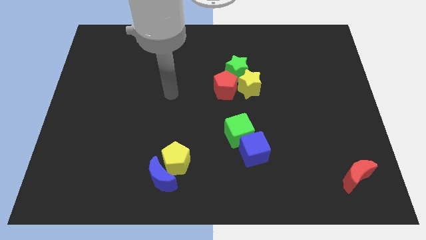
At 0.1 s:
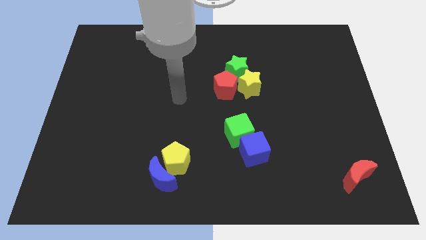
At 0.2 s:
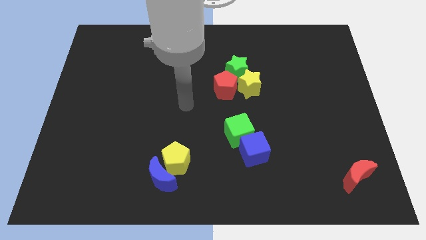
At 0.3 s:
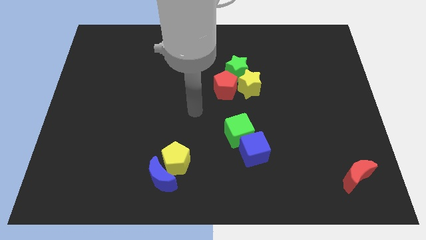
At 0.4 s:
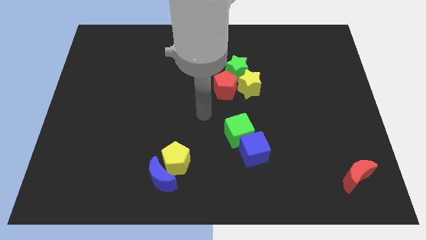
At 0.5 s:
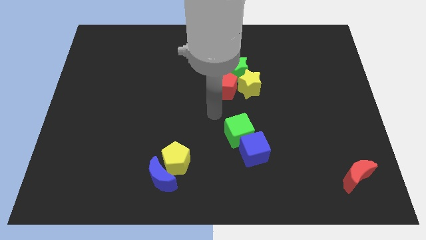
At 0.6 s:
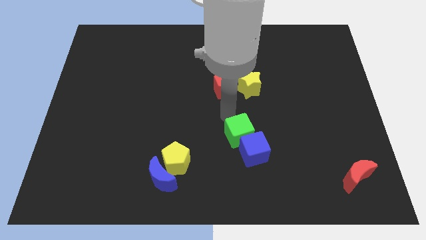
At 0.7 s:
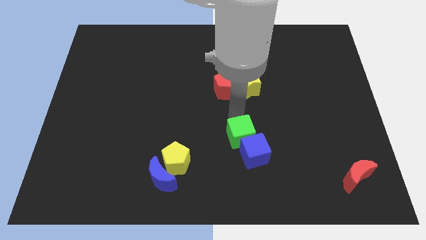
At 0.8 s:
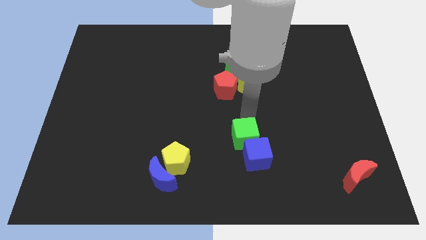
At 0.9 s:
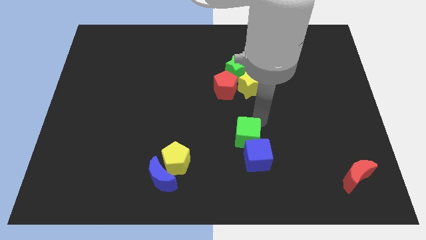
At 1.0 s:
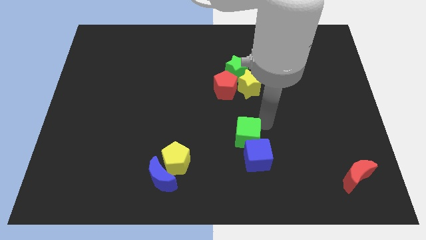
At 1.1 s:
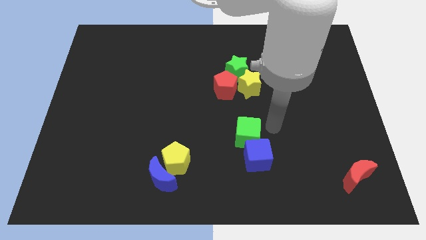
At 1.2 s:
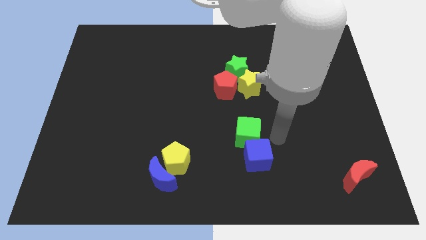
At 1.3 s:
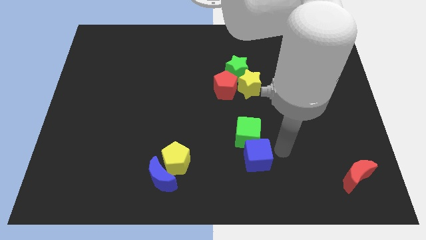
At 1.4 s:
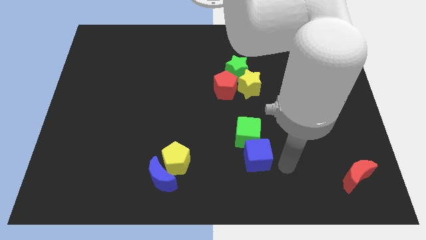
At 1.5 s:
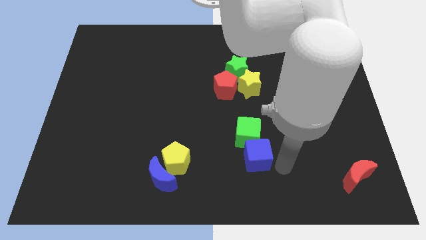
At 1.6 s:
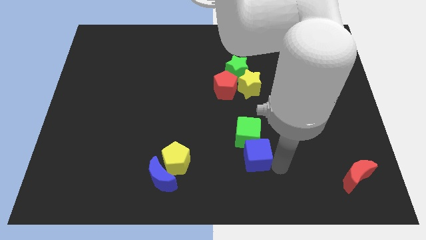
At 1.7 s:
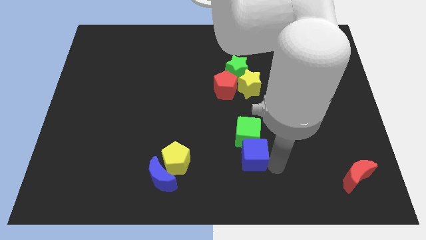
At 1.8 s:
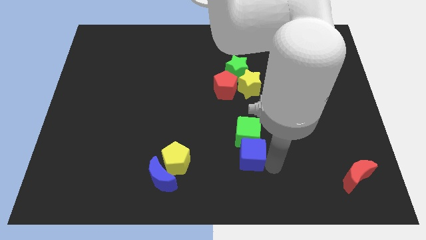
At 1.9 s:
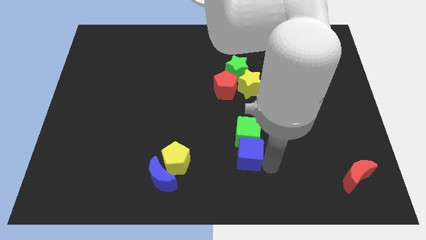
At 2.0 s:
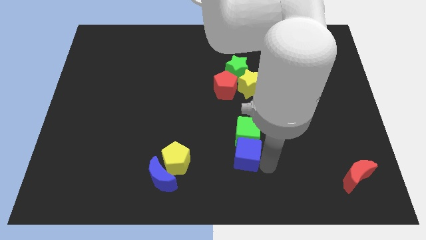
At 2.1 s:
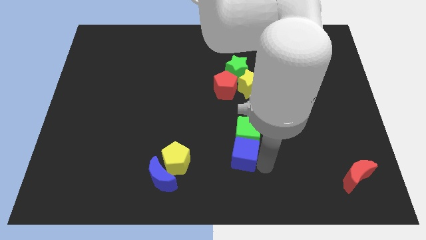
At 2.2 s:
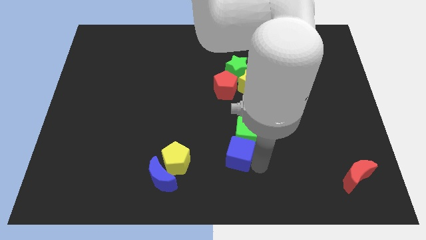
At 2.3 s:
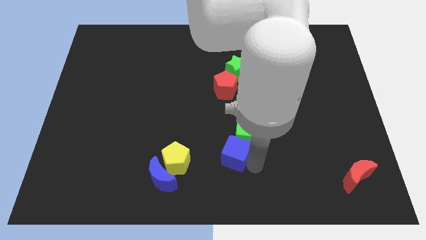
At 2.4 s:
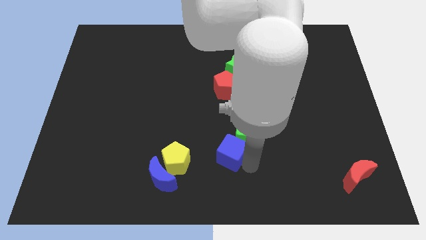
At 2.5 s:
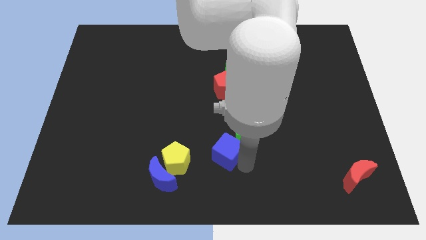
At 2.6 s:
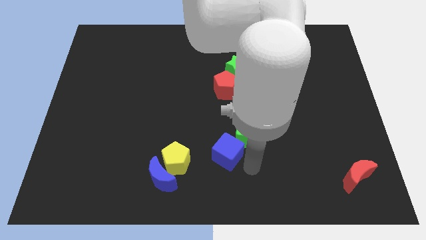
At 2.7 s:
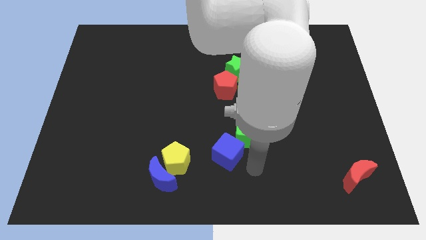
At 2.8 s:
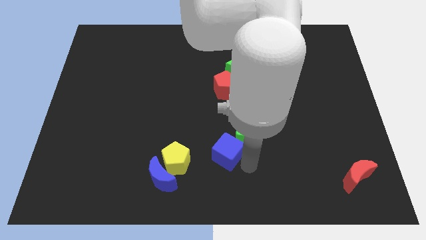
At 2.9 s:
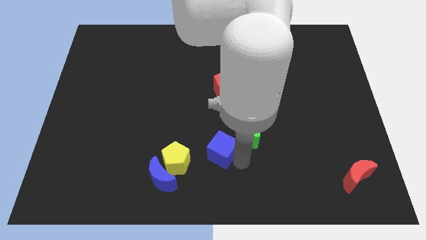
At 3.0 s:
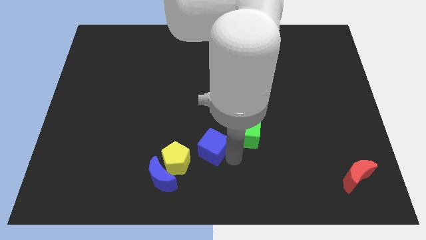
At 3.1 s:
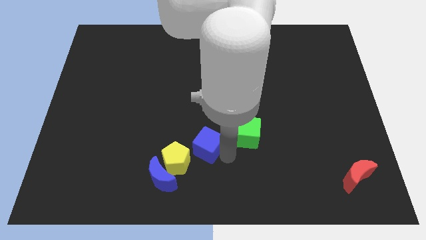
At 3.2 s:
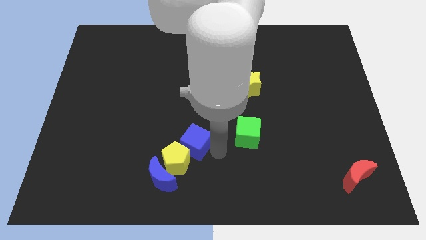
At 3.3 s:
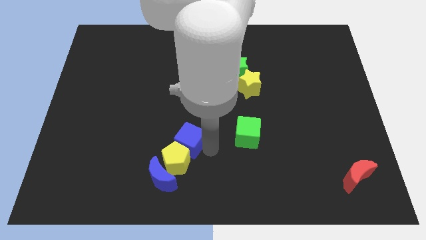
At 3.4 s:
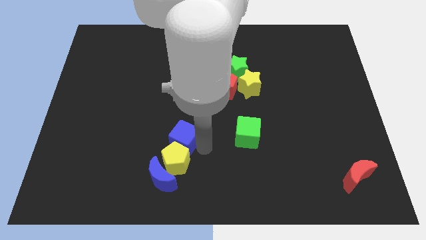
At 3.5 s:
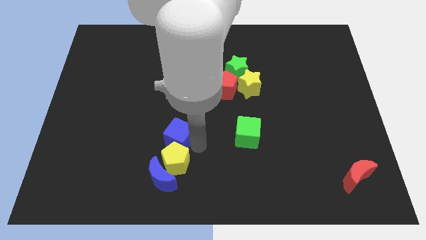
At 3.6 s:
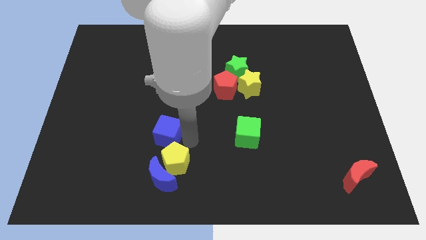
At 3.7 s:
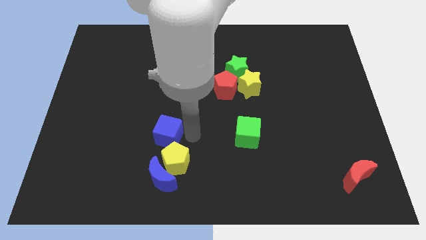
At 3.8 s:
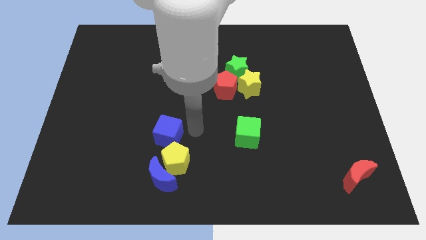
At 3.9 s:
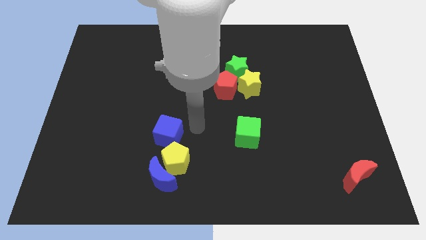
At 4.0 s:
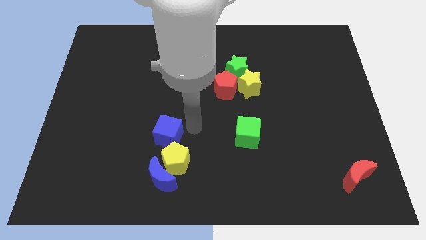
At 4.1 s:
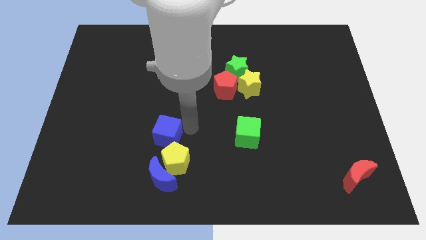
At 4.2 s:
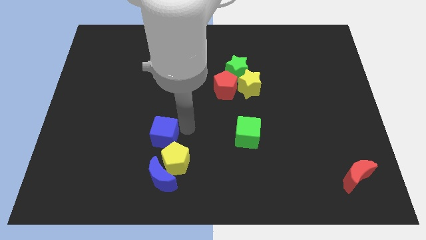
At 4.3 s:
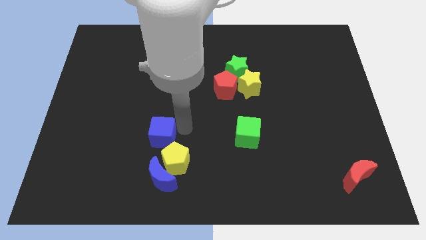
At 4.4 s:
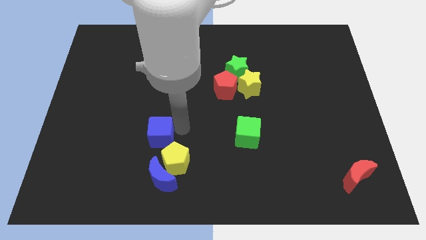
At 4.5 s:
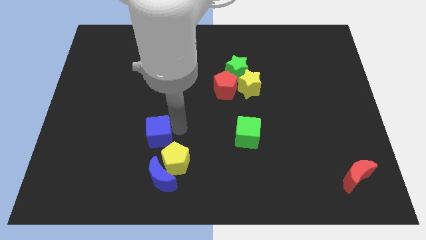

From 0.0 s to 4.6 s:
slide the blue cube to the left

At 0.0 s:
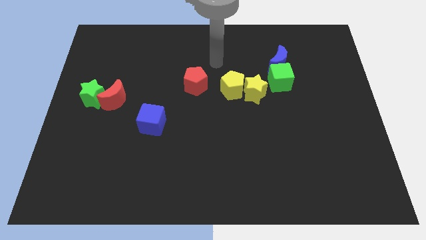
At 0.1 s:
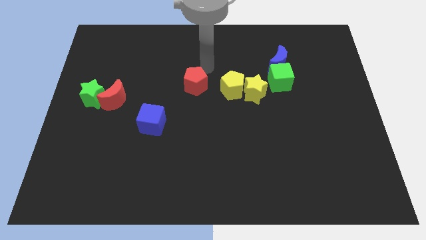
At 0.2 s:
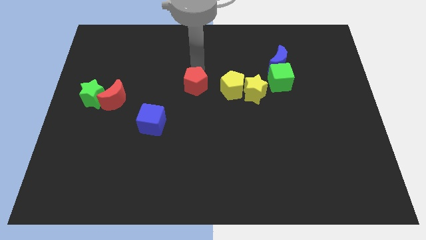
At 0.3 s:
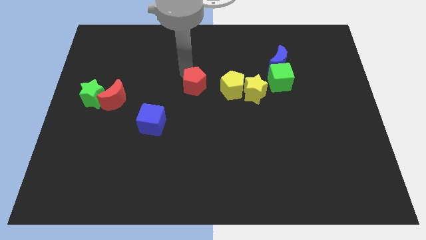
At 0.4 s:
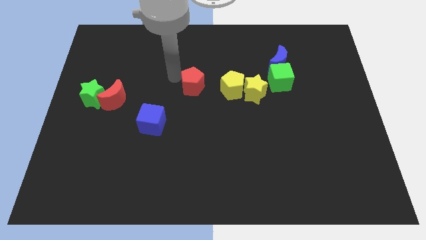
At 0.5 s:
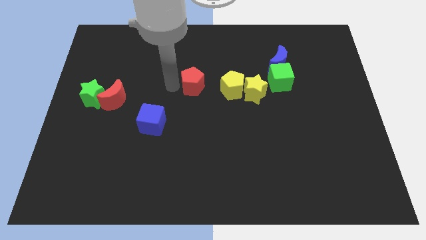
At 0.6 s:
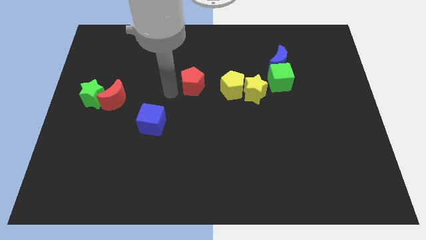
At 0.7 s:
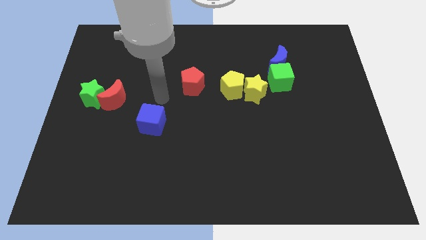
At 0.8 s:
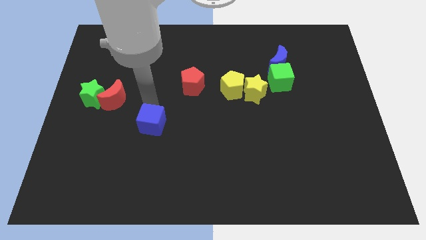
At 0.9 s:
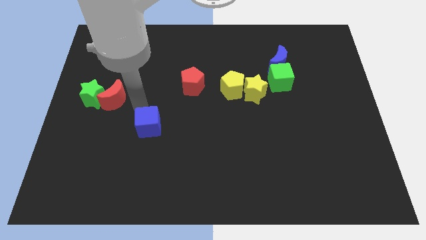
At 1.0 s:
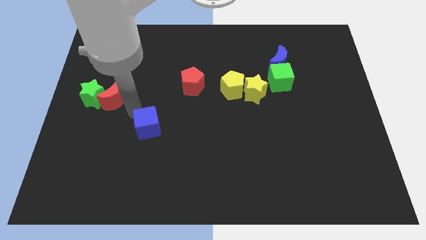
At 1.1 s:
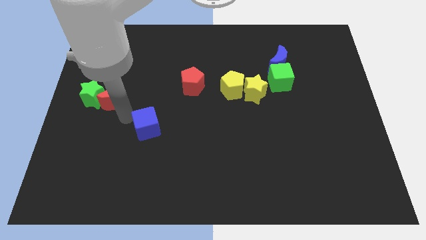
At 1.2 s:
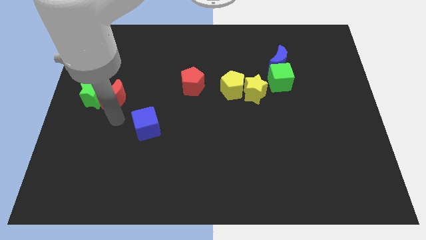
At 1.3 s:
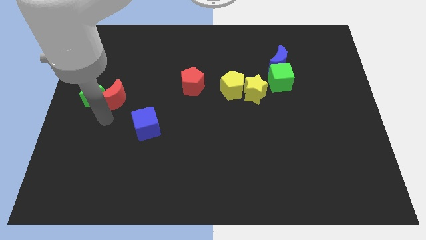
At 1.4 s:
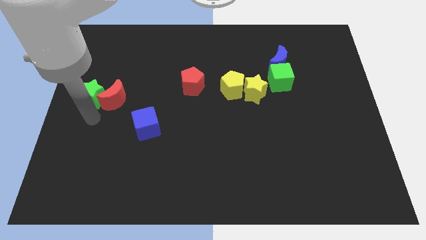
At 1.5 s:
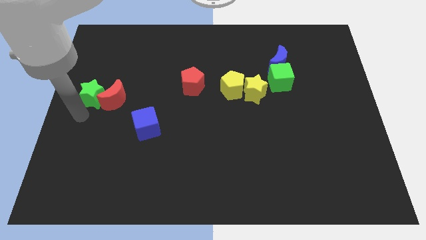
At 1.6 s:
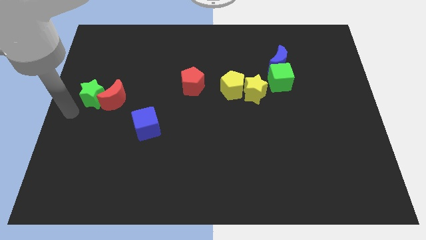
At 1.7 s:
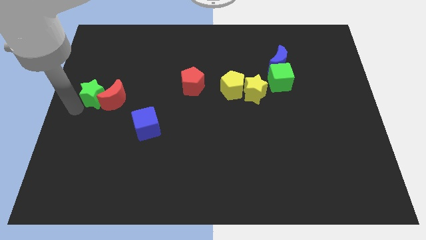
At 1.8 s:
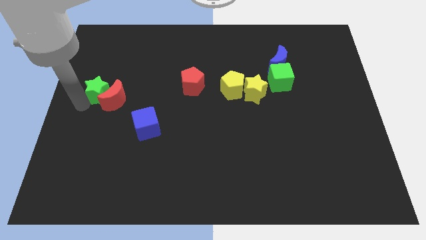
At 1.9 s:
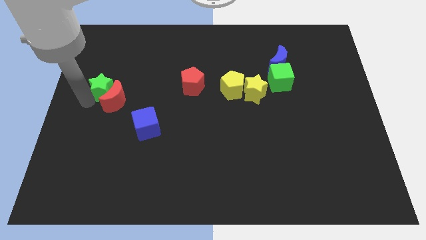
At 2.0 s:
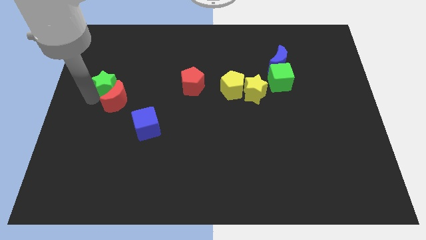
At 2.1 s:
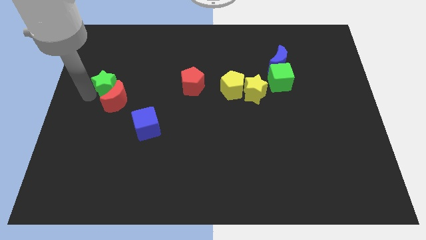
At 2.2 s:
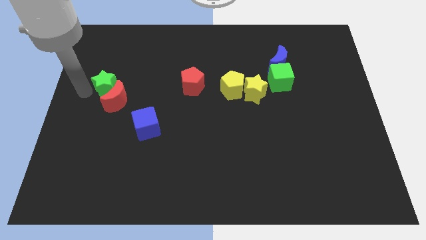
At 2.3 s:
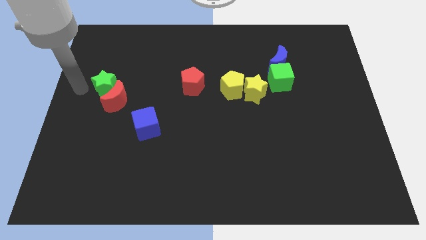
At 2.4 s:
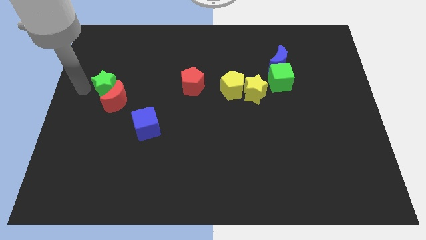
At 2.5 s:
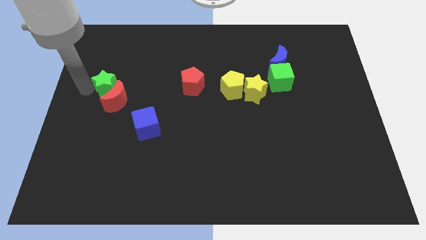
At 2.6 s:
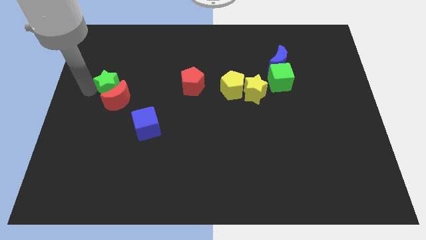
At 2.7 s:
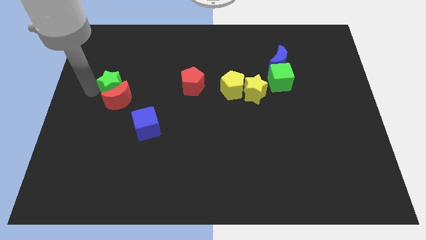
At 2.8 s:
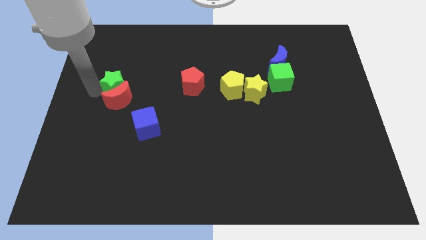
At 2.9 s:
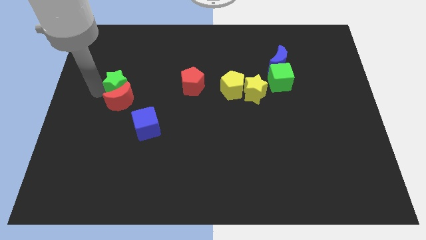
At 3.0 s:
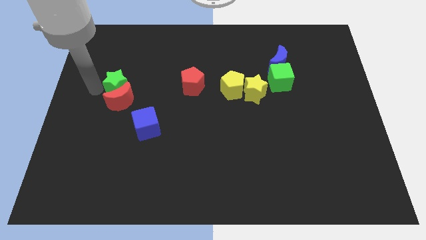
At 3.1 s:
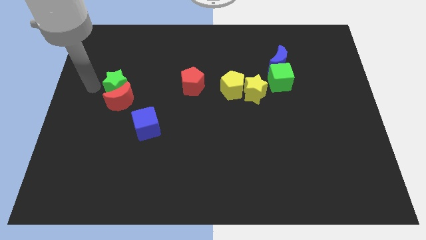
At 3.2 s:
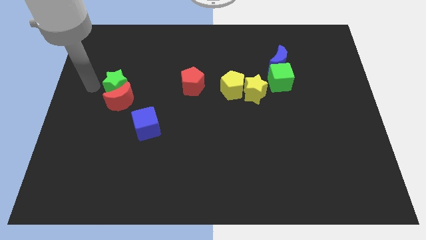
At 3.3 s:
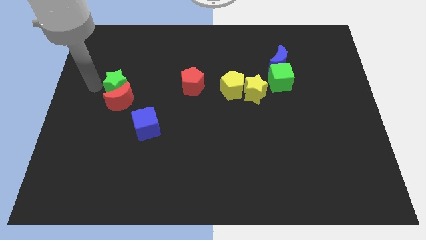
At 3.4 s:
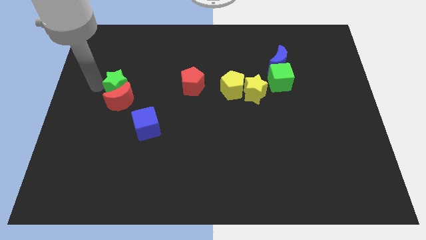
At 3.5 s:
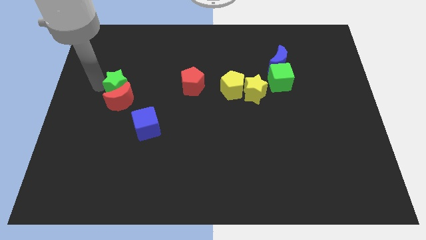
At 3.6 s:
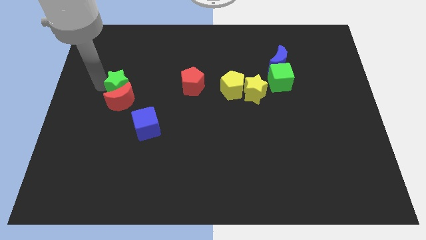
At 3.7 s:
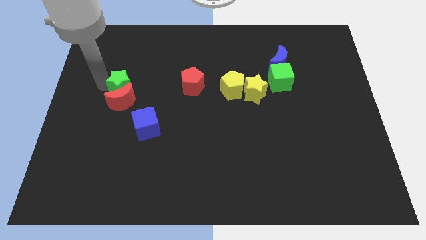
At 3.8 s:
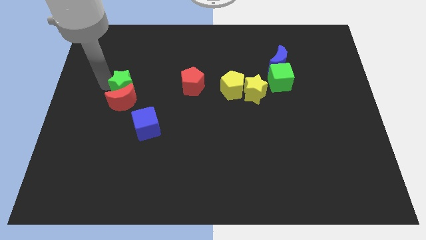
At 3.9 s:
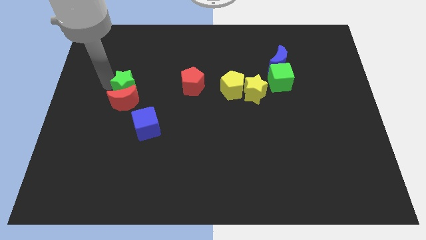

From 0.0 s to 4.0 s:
slightly slide the green star right
